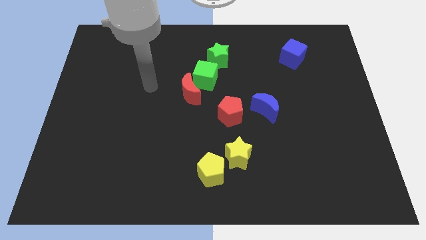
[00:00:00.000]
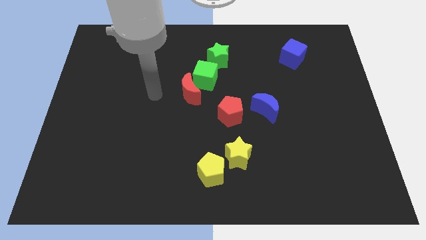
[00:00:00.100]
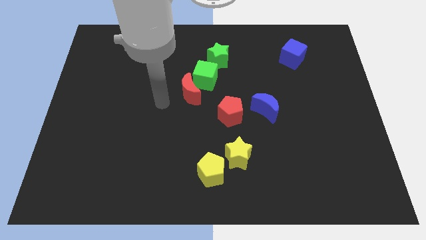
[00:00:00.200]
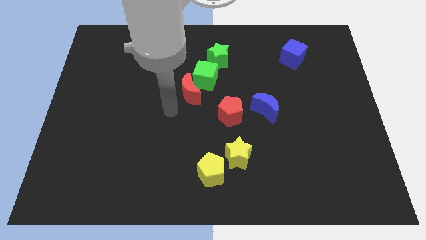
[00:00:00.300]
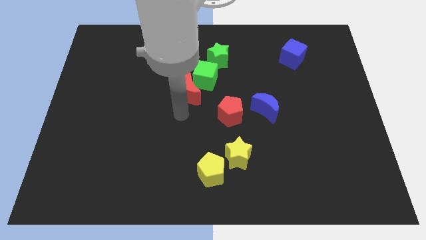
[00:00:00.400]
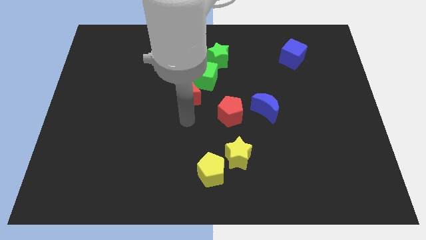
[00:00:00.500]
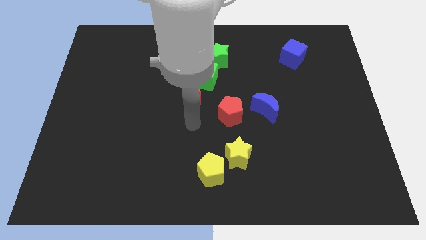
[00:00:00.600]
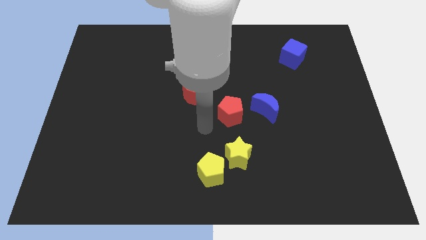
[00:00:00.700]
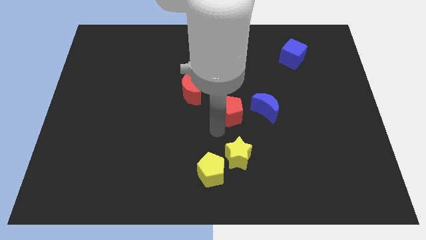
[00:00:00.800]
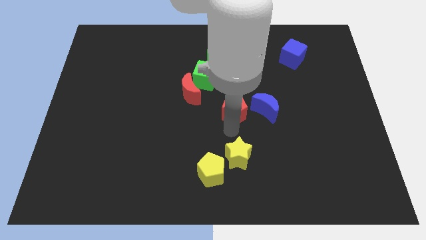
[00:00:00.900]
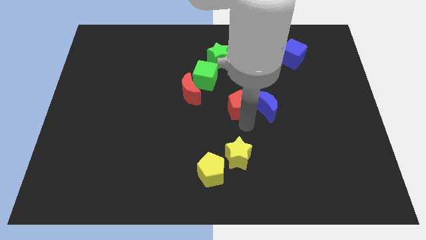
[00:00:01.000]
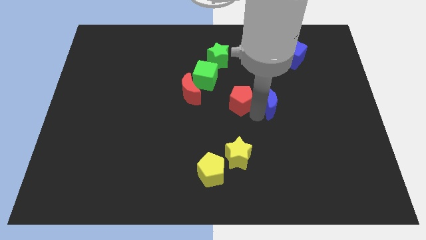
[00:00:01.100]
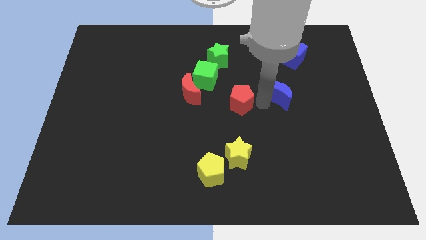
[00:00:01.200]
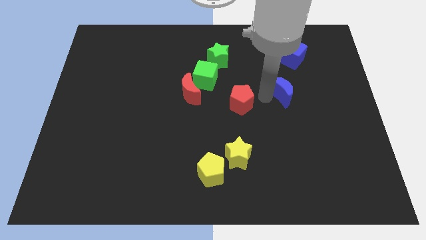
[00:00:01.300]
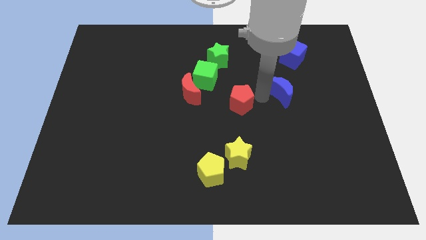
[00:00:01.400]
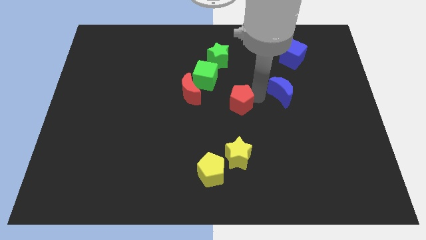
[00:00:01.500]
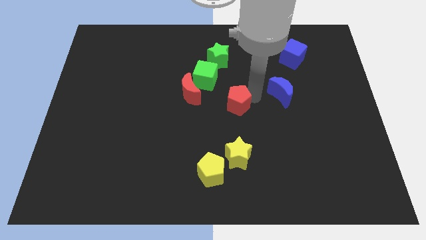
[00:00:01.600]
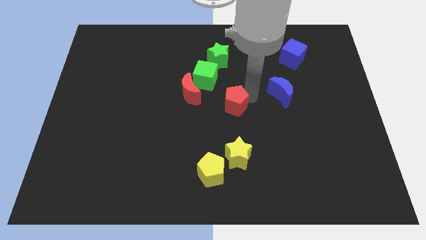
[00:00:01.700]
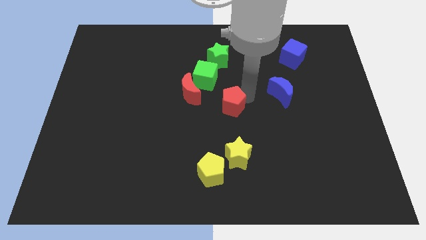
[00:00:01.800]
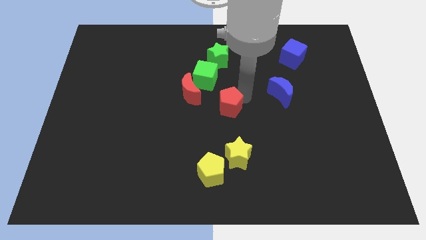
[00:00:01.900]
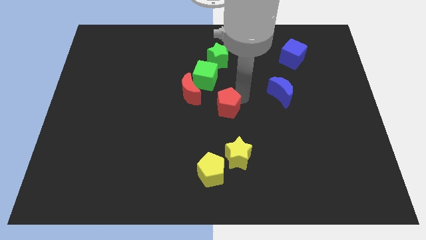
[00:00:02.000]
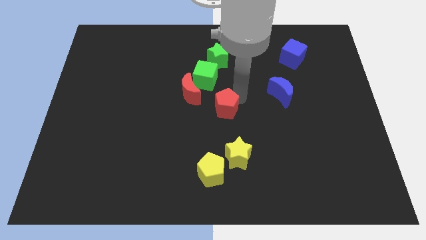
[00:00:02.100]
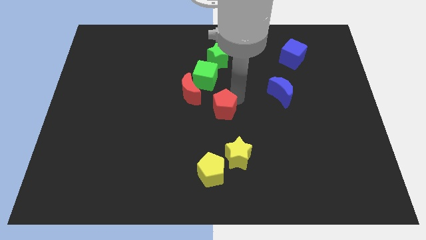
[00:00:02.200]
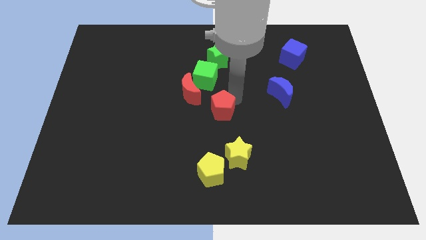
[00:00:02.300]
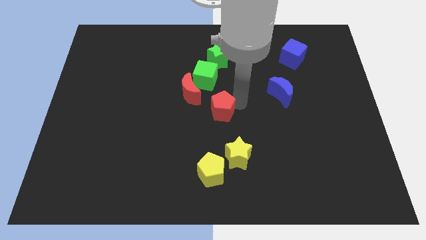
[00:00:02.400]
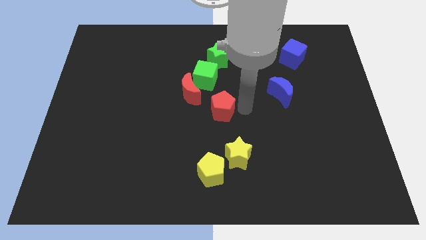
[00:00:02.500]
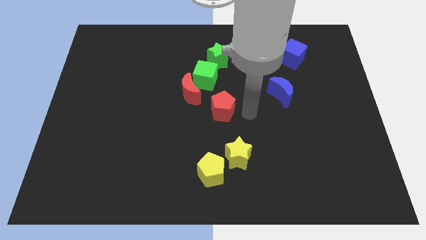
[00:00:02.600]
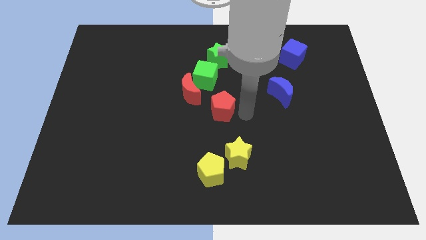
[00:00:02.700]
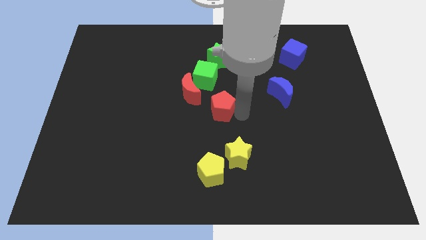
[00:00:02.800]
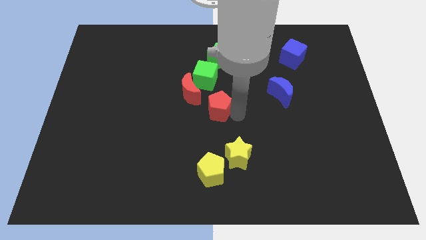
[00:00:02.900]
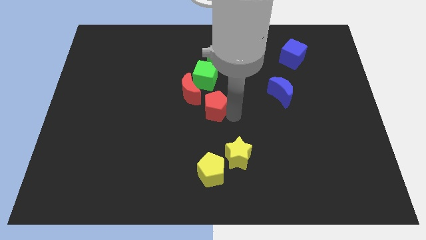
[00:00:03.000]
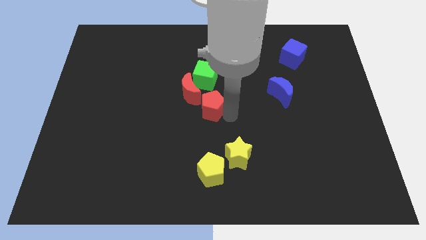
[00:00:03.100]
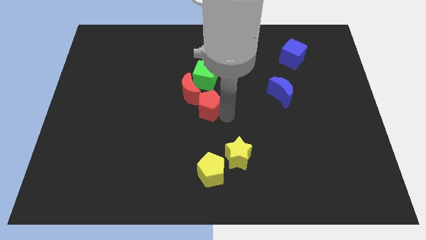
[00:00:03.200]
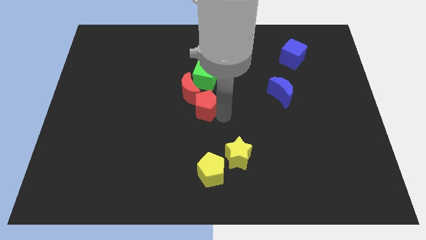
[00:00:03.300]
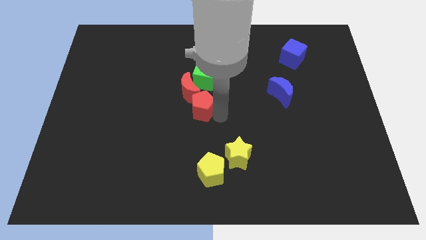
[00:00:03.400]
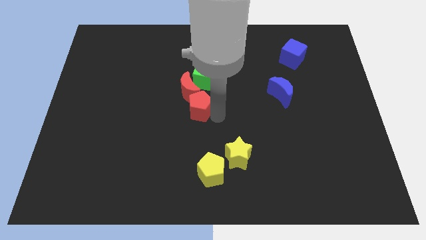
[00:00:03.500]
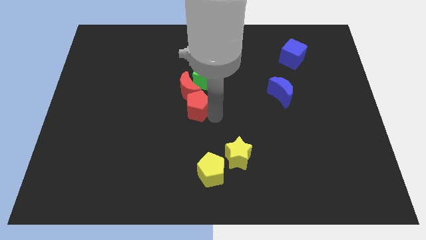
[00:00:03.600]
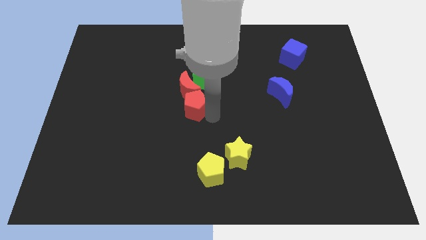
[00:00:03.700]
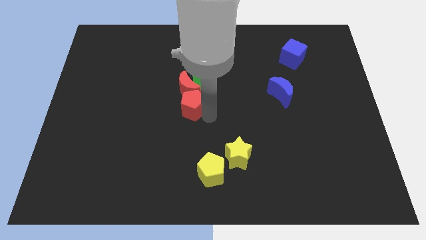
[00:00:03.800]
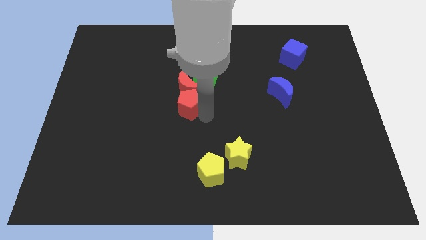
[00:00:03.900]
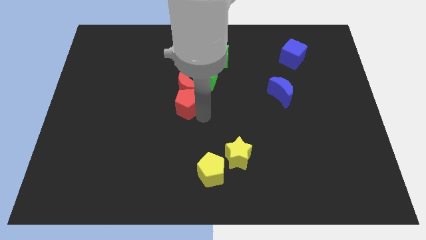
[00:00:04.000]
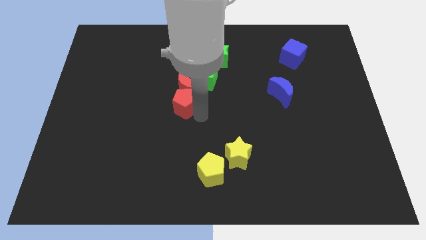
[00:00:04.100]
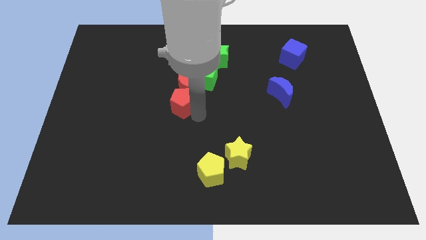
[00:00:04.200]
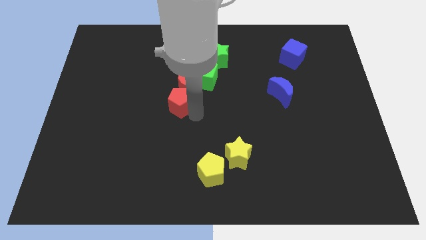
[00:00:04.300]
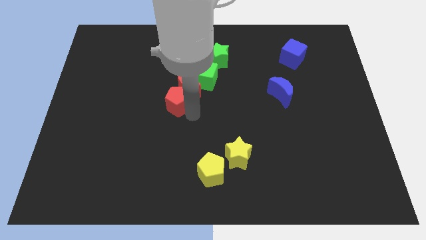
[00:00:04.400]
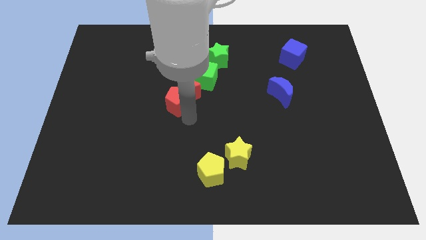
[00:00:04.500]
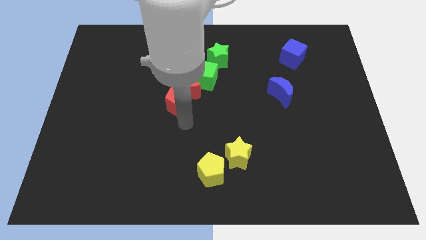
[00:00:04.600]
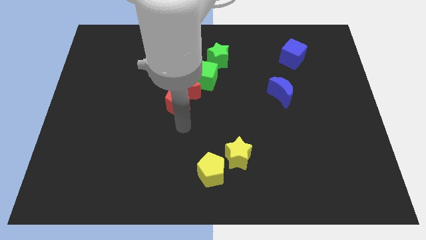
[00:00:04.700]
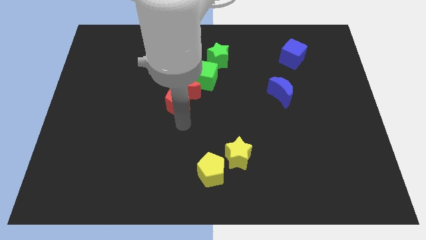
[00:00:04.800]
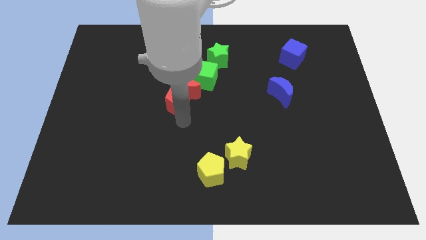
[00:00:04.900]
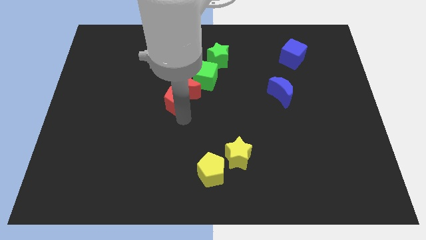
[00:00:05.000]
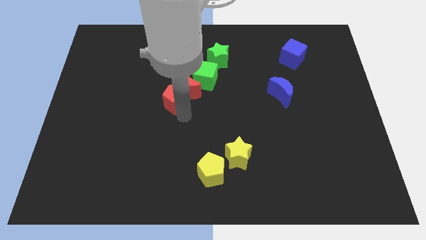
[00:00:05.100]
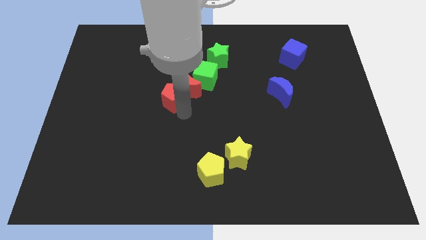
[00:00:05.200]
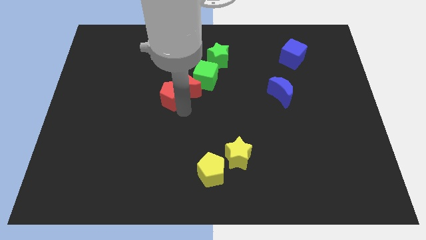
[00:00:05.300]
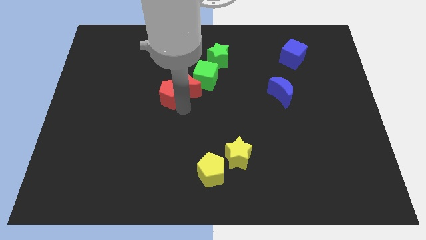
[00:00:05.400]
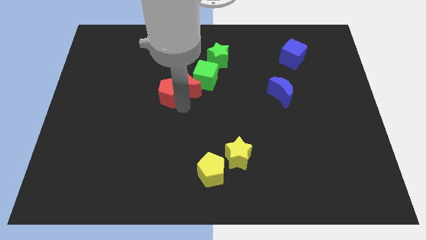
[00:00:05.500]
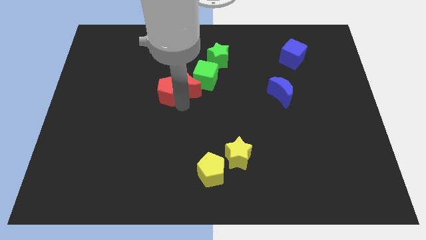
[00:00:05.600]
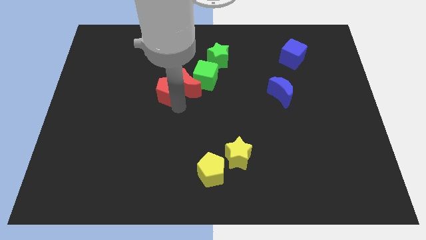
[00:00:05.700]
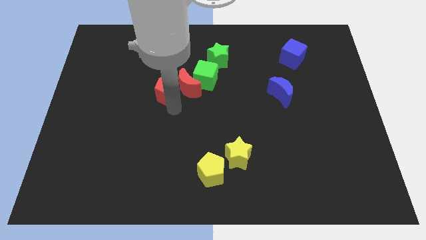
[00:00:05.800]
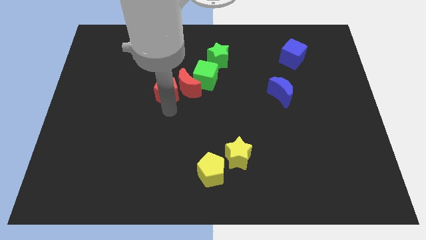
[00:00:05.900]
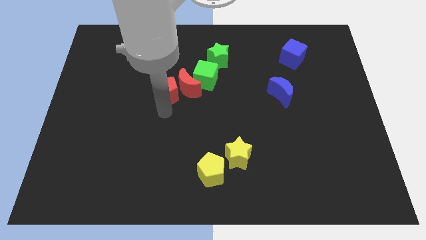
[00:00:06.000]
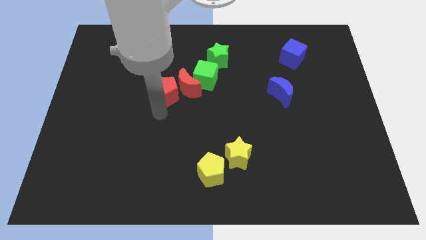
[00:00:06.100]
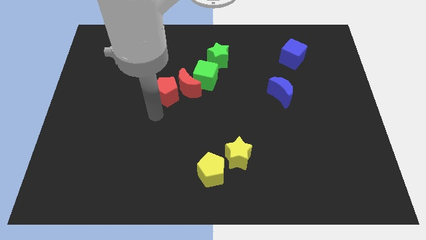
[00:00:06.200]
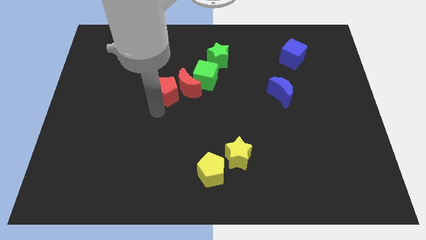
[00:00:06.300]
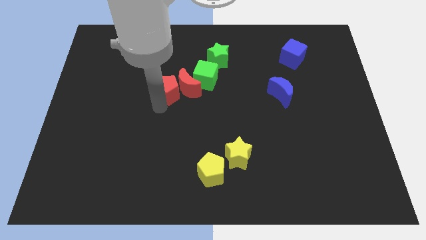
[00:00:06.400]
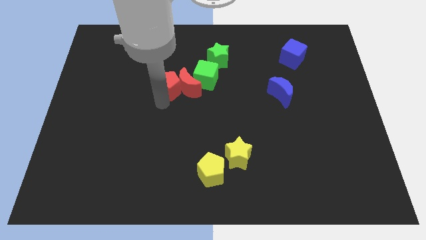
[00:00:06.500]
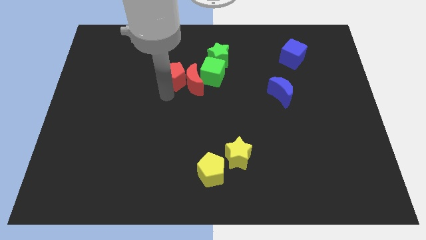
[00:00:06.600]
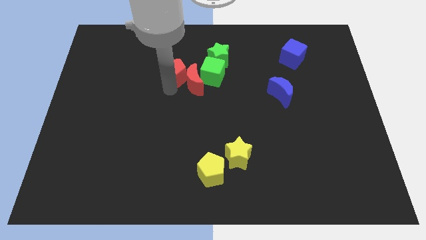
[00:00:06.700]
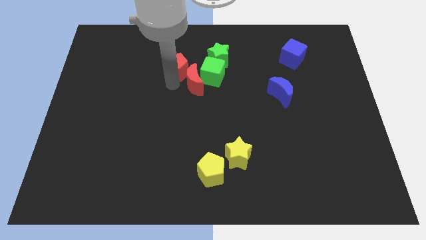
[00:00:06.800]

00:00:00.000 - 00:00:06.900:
put the red pentagon just left of the green star
